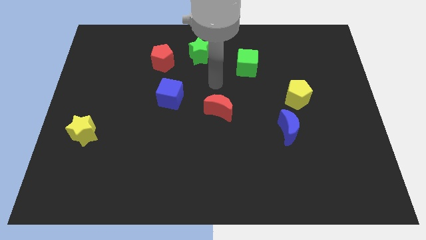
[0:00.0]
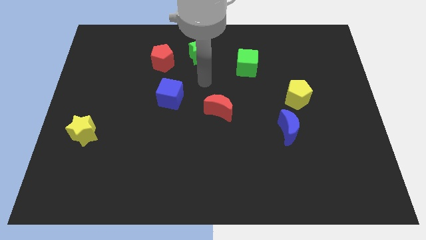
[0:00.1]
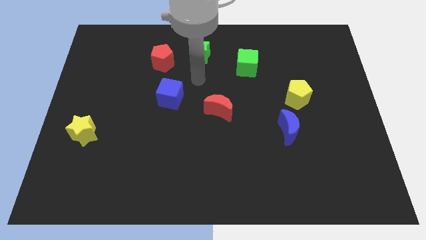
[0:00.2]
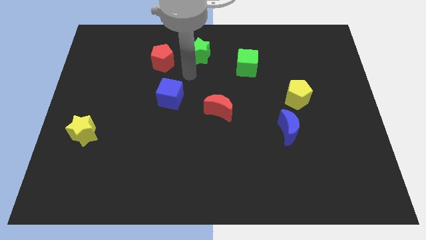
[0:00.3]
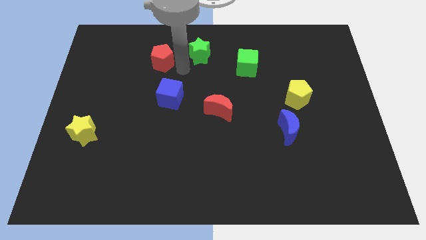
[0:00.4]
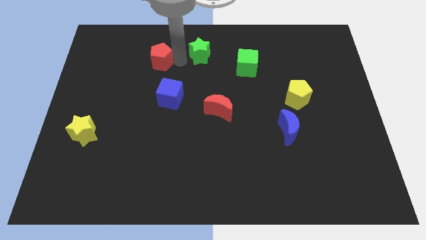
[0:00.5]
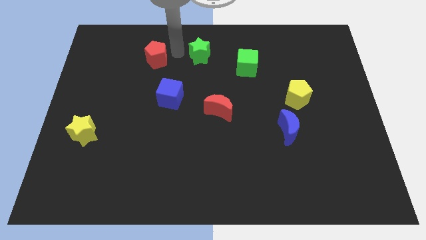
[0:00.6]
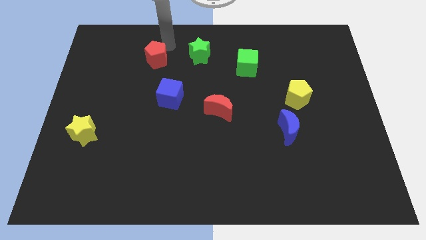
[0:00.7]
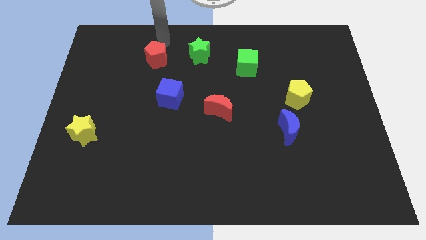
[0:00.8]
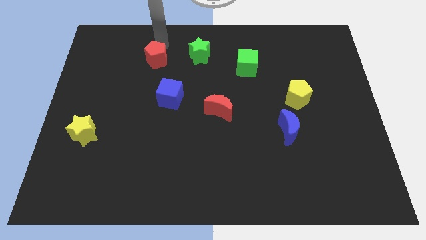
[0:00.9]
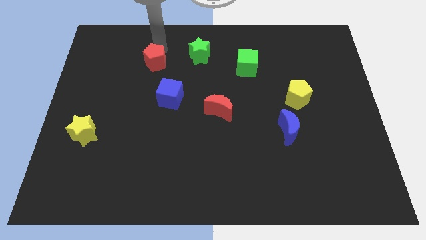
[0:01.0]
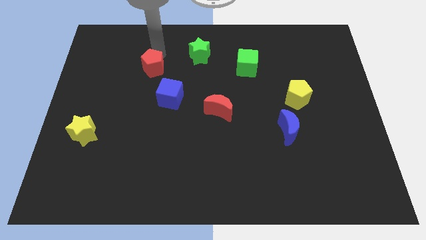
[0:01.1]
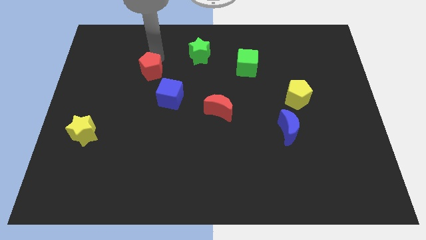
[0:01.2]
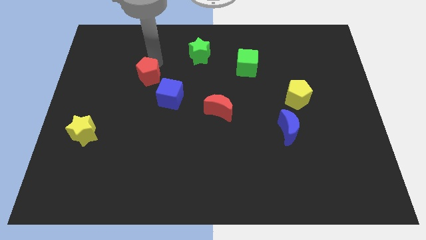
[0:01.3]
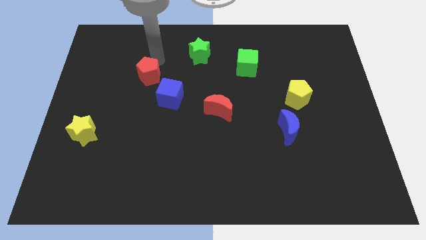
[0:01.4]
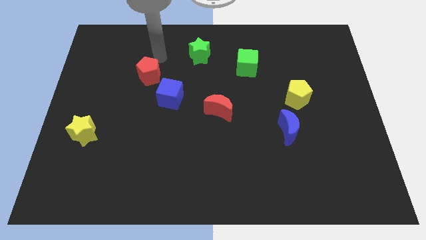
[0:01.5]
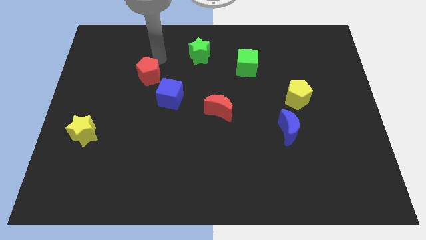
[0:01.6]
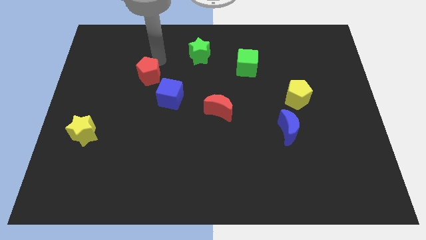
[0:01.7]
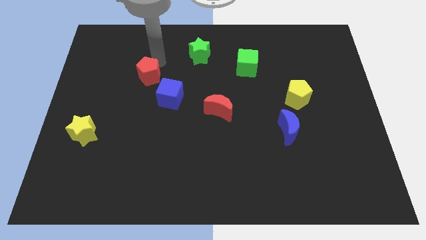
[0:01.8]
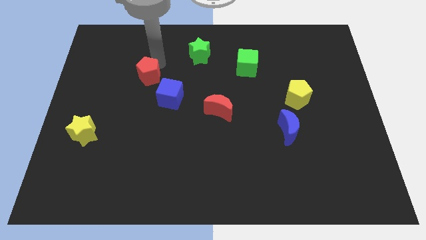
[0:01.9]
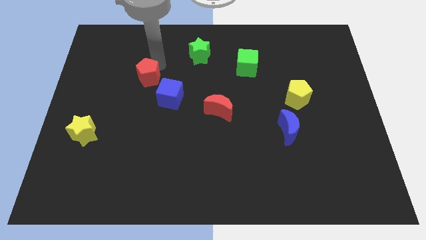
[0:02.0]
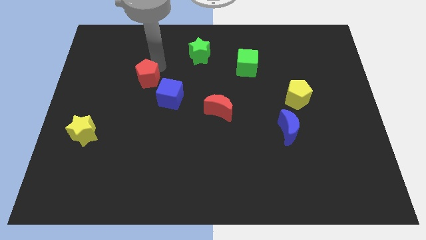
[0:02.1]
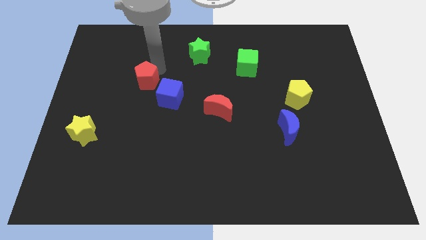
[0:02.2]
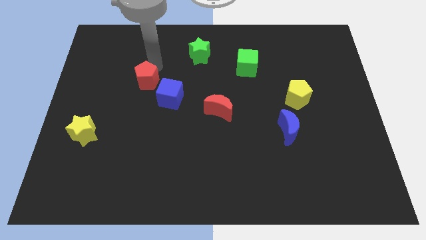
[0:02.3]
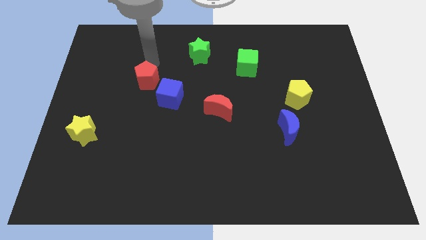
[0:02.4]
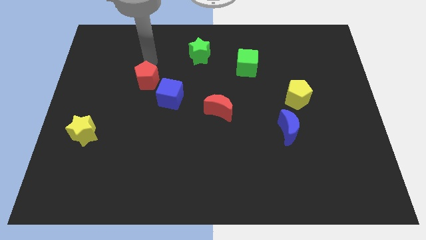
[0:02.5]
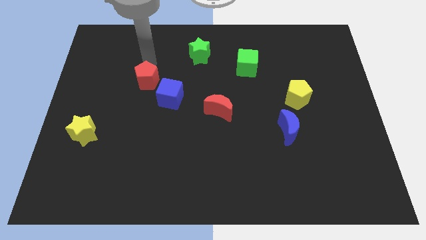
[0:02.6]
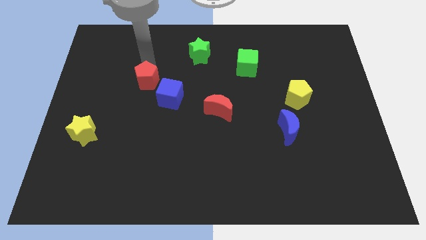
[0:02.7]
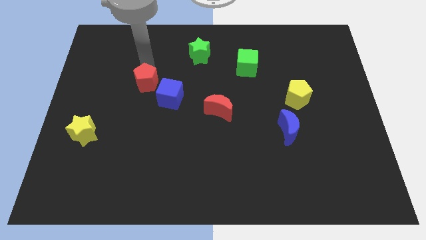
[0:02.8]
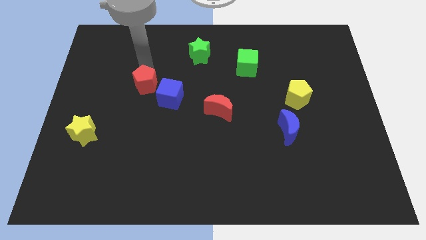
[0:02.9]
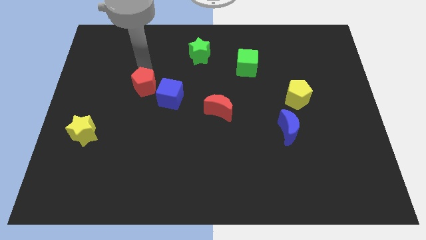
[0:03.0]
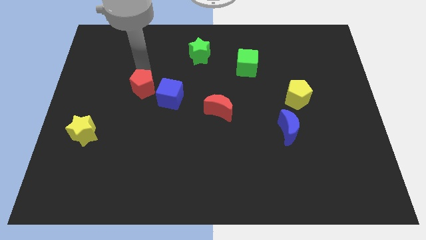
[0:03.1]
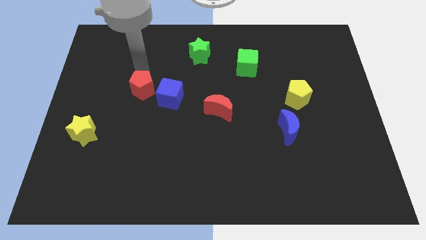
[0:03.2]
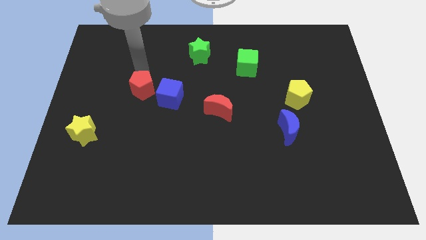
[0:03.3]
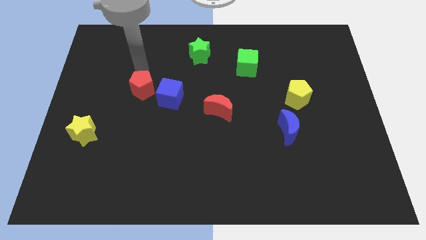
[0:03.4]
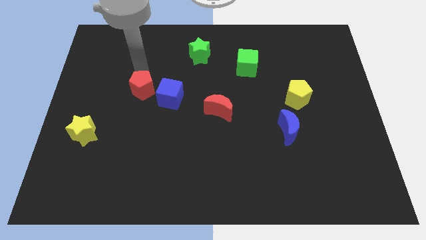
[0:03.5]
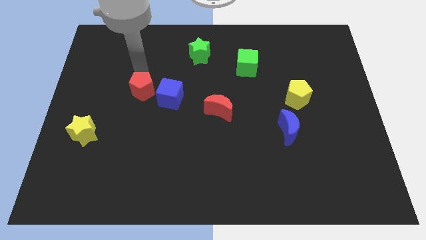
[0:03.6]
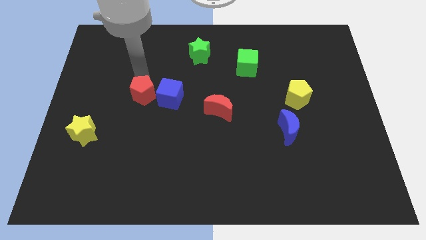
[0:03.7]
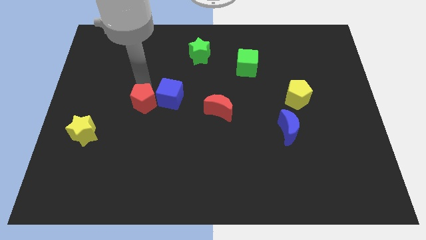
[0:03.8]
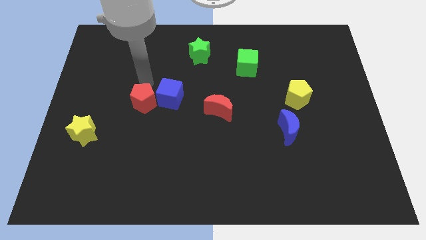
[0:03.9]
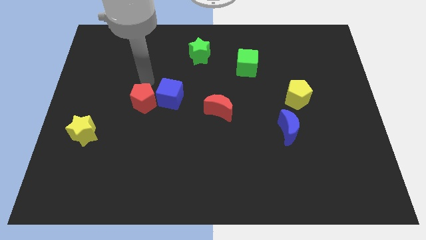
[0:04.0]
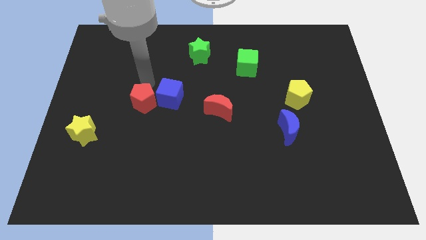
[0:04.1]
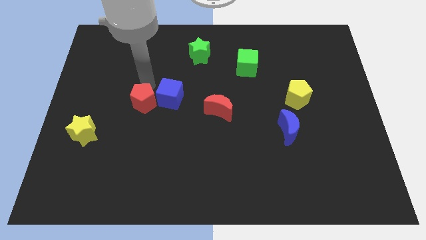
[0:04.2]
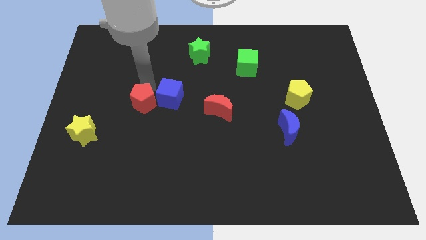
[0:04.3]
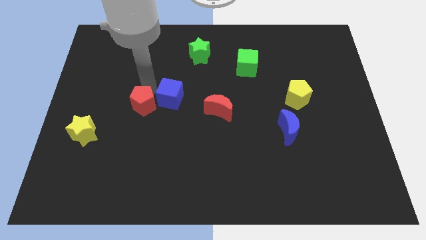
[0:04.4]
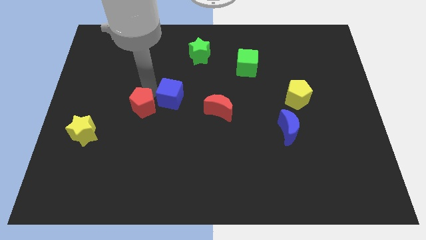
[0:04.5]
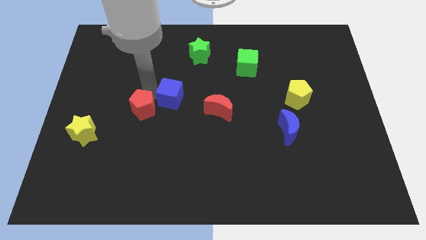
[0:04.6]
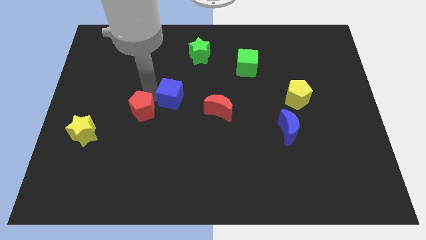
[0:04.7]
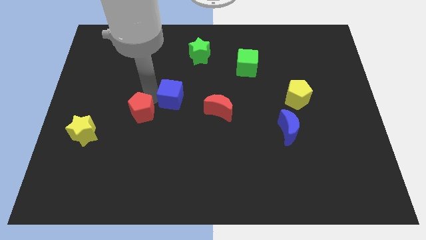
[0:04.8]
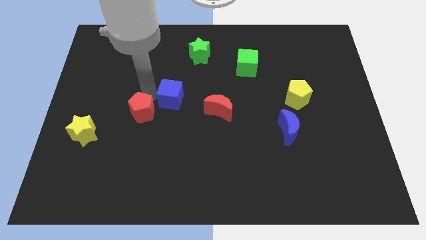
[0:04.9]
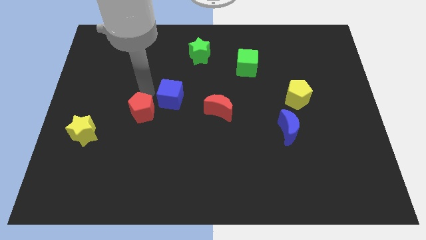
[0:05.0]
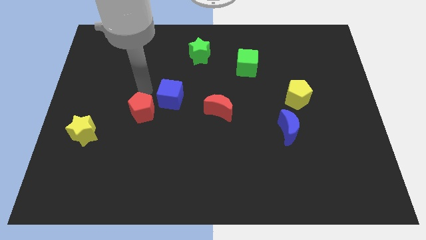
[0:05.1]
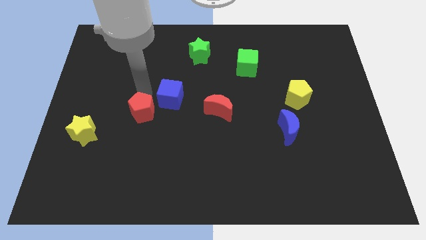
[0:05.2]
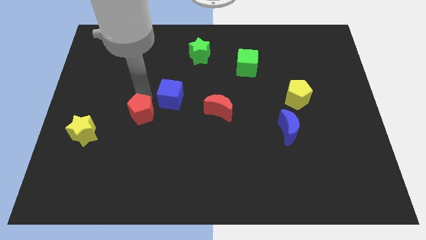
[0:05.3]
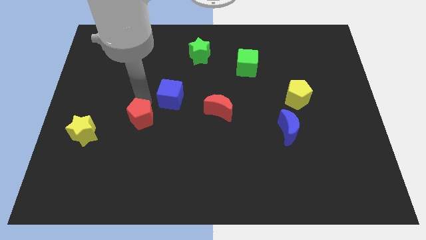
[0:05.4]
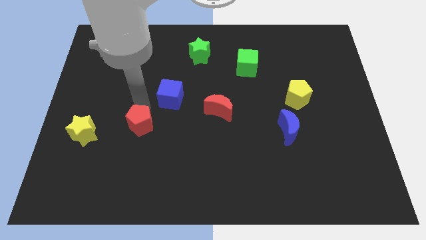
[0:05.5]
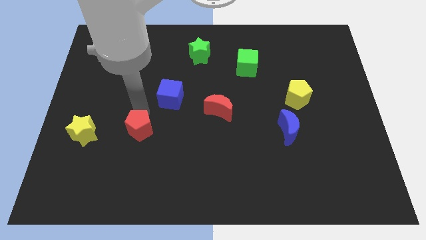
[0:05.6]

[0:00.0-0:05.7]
move the red pentagon downwards

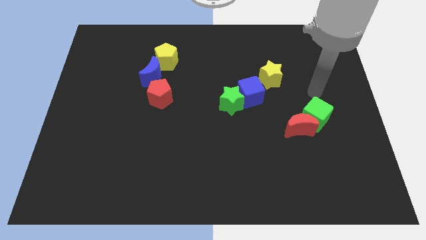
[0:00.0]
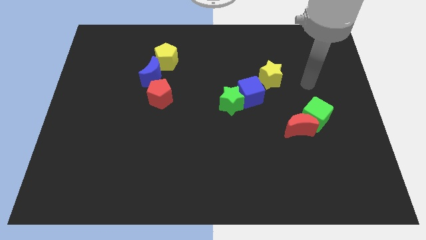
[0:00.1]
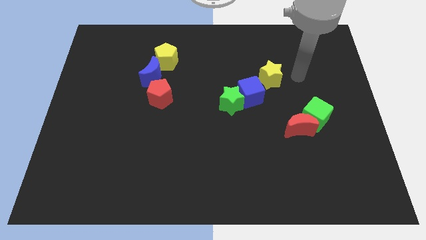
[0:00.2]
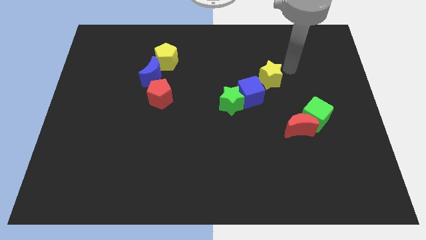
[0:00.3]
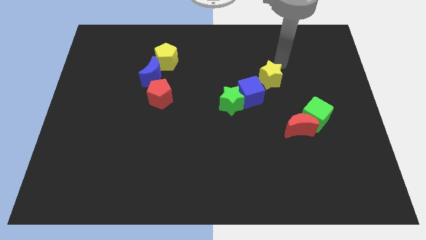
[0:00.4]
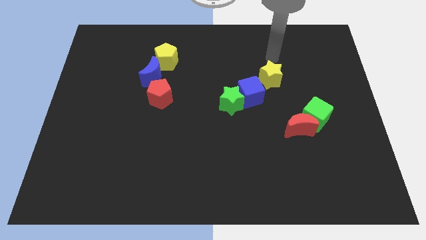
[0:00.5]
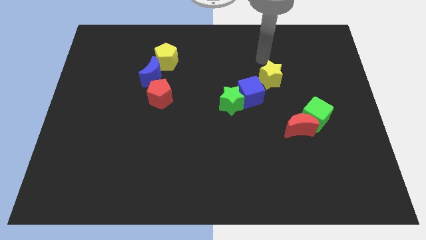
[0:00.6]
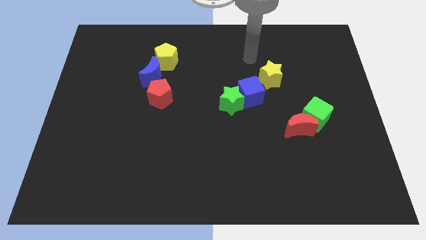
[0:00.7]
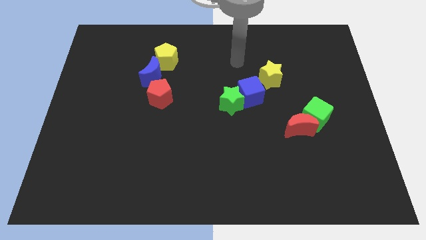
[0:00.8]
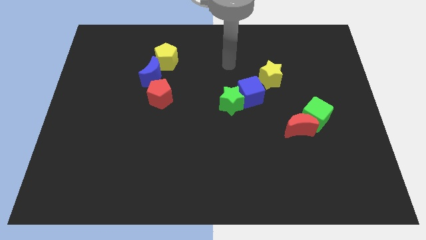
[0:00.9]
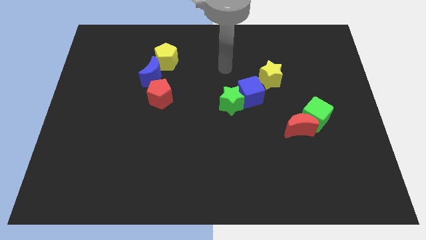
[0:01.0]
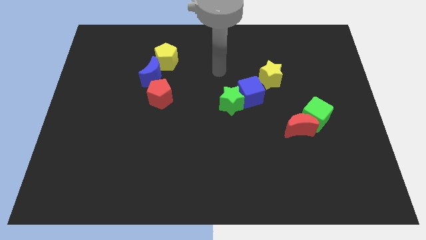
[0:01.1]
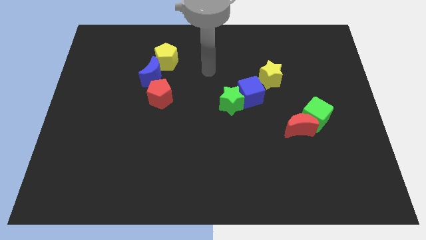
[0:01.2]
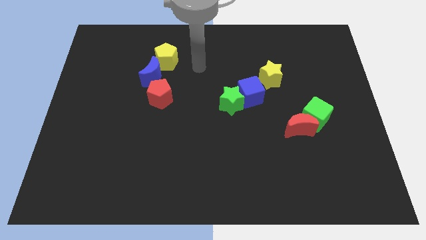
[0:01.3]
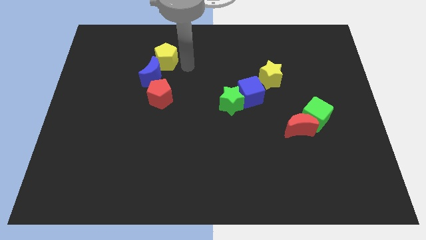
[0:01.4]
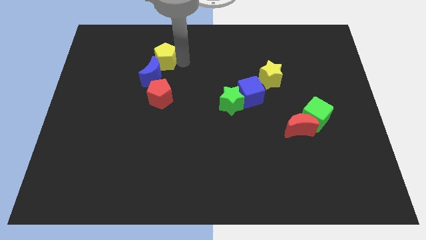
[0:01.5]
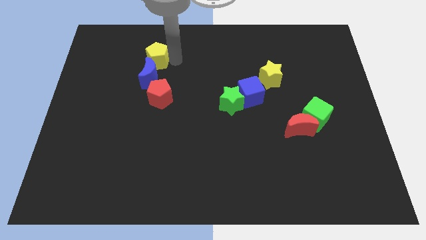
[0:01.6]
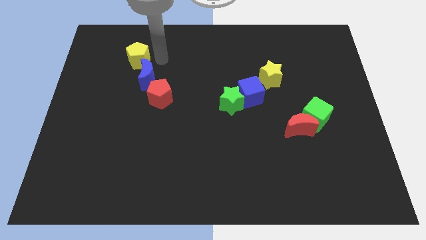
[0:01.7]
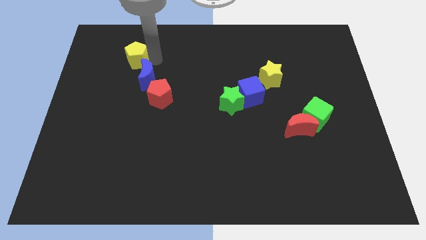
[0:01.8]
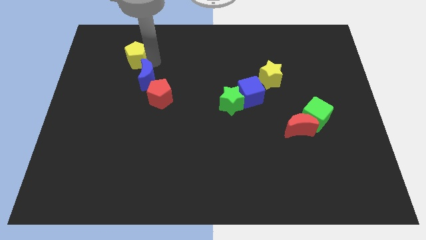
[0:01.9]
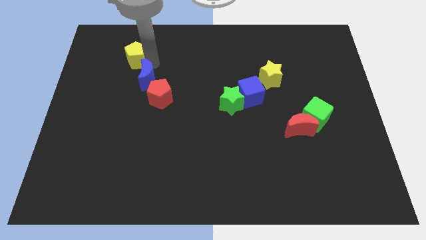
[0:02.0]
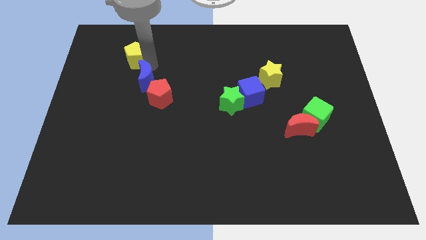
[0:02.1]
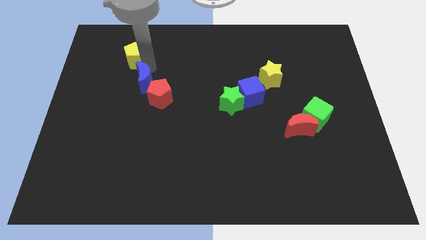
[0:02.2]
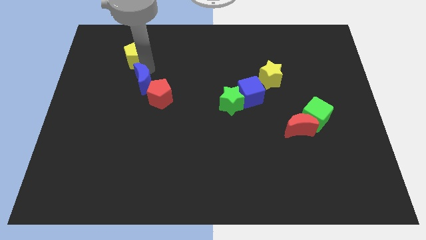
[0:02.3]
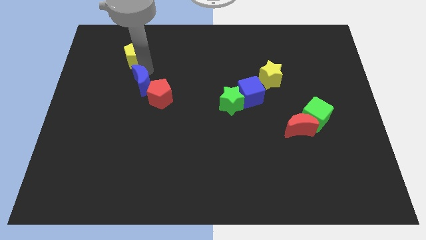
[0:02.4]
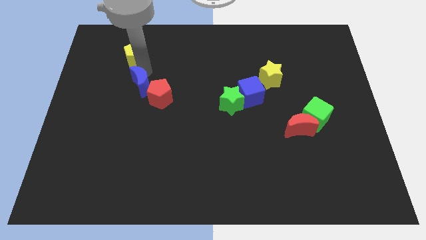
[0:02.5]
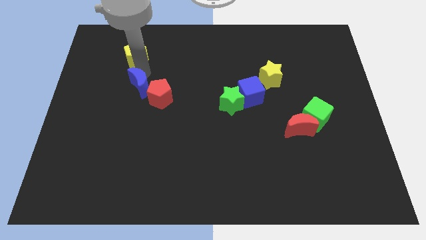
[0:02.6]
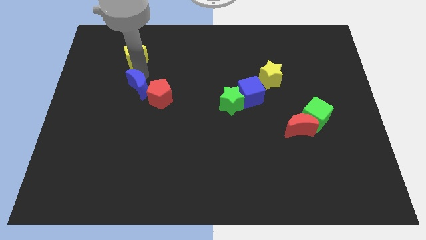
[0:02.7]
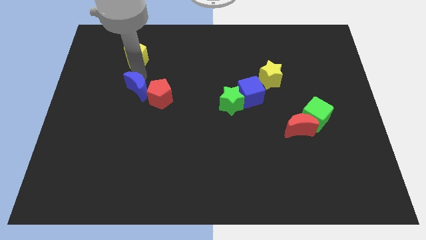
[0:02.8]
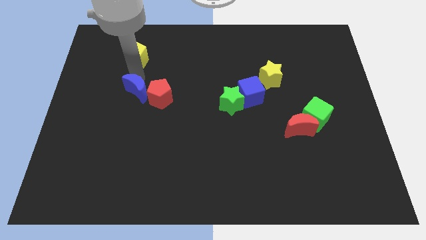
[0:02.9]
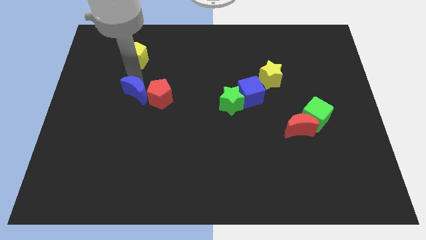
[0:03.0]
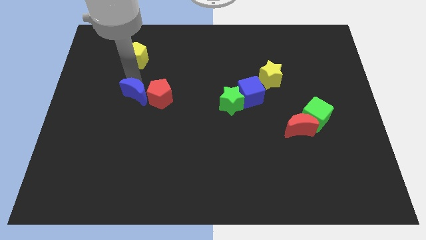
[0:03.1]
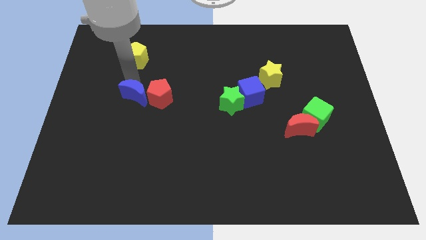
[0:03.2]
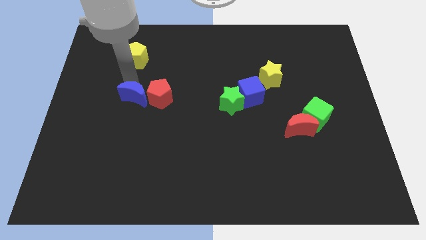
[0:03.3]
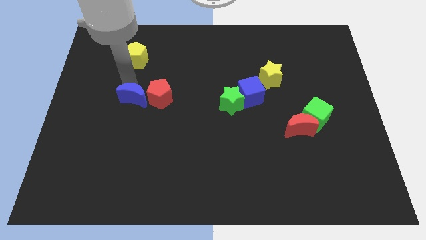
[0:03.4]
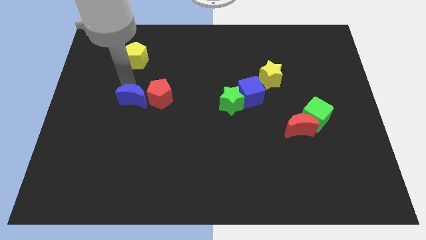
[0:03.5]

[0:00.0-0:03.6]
slightly slide the blue moon downwards
